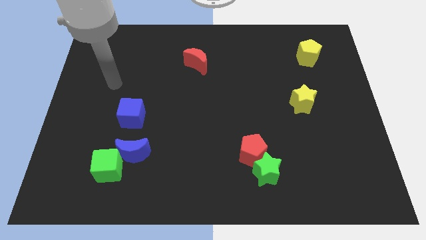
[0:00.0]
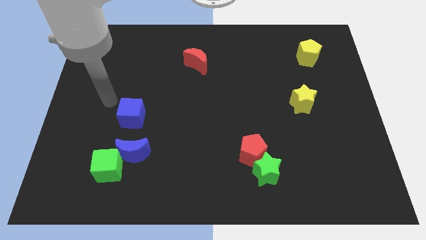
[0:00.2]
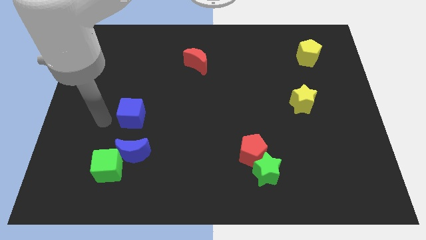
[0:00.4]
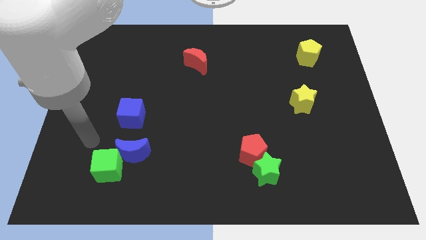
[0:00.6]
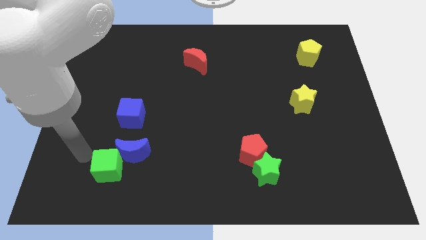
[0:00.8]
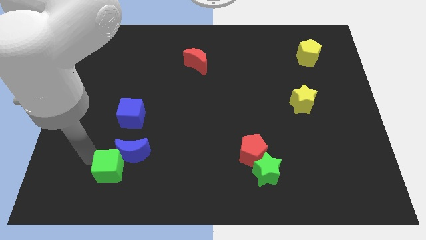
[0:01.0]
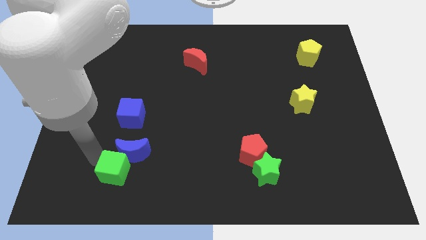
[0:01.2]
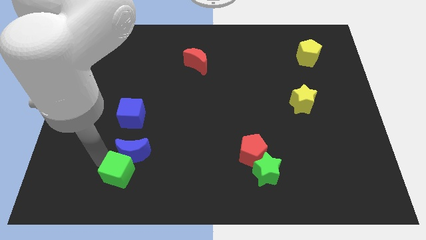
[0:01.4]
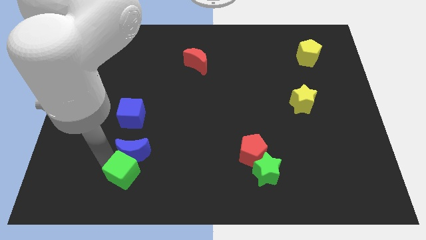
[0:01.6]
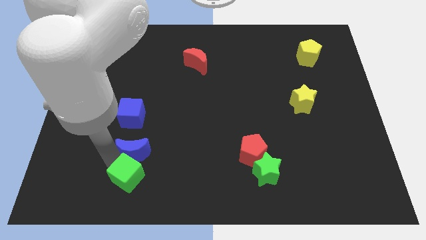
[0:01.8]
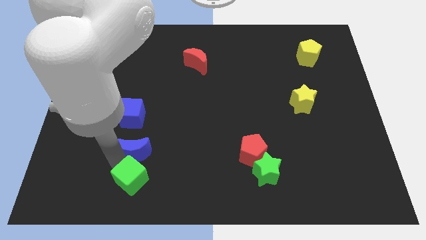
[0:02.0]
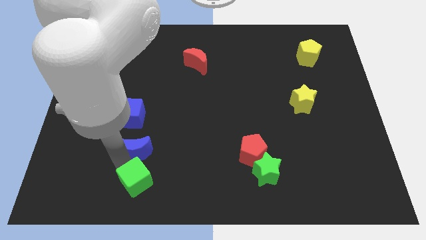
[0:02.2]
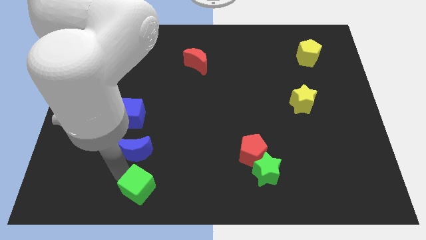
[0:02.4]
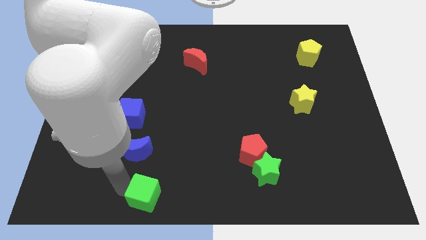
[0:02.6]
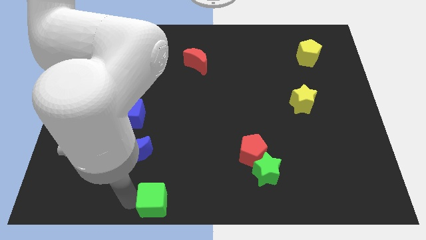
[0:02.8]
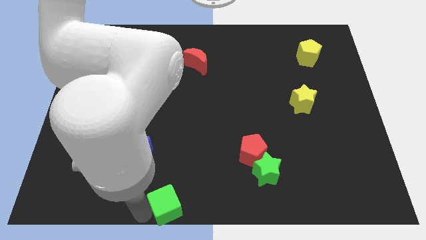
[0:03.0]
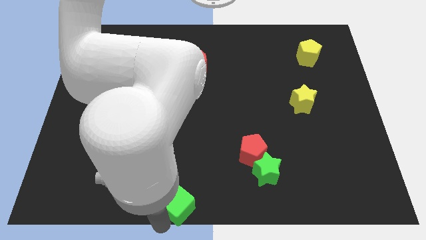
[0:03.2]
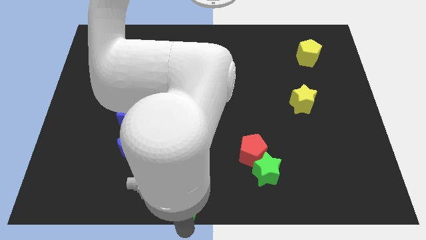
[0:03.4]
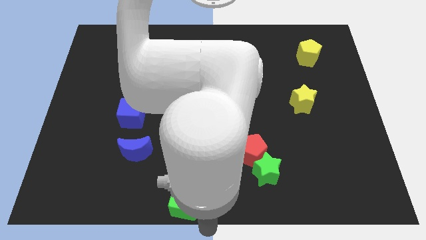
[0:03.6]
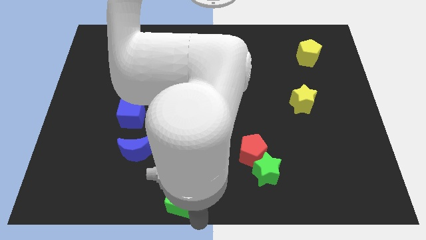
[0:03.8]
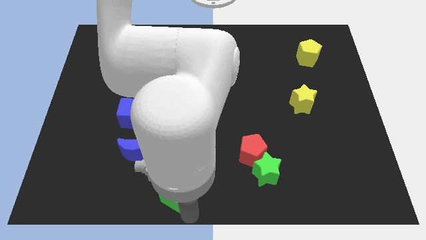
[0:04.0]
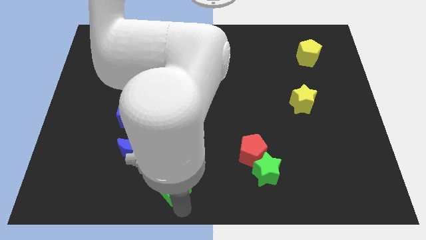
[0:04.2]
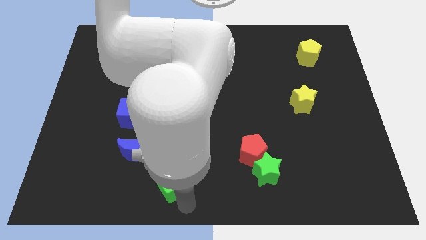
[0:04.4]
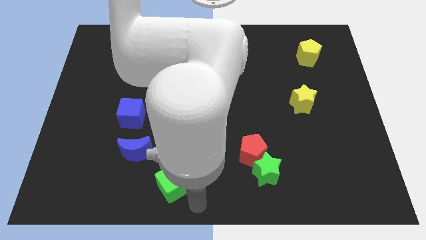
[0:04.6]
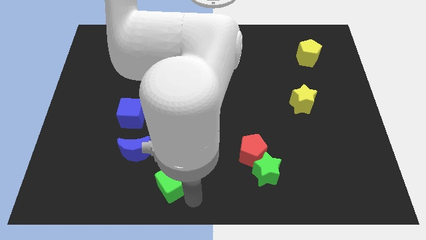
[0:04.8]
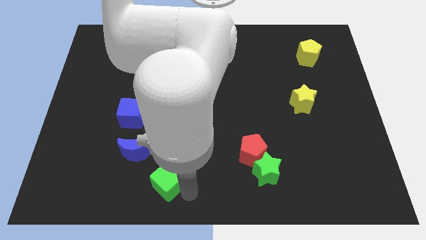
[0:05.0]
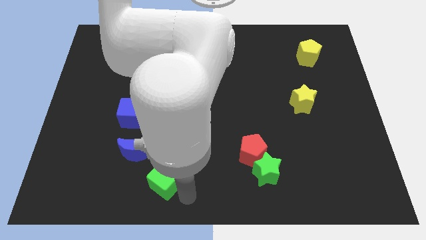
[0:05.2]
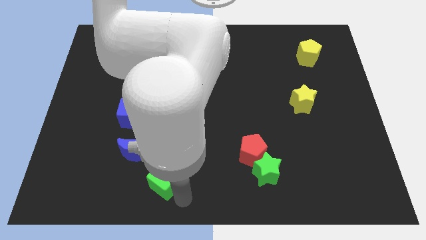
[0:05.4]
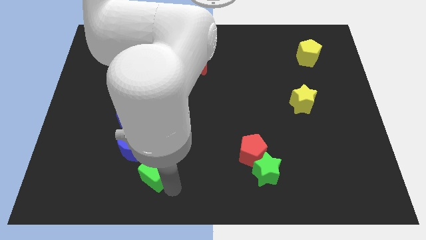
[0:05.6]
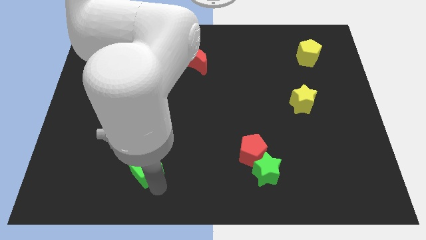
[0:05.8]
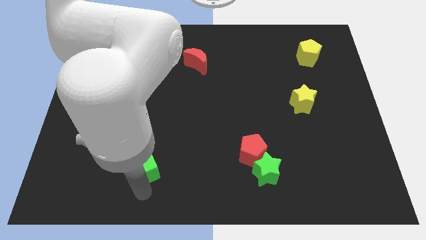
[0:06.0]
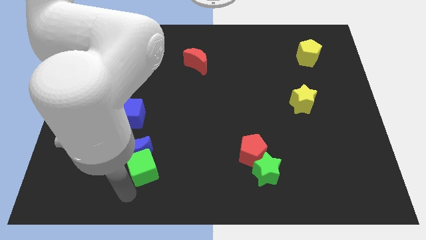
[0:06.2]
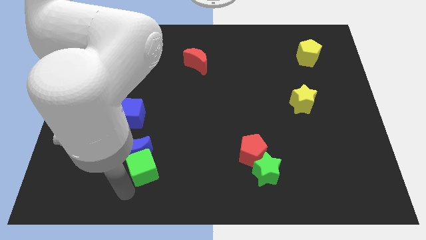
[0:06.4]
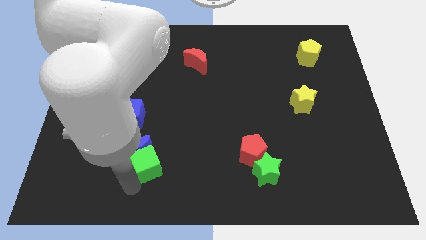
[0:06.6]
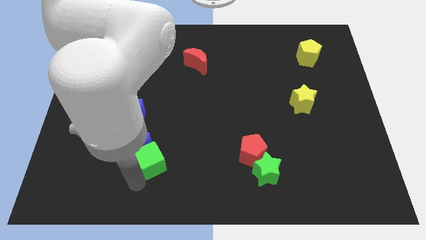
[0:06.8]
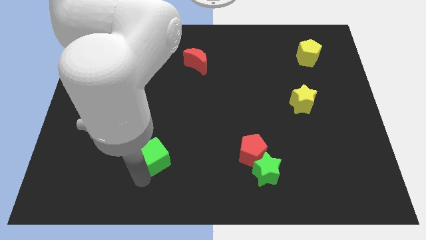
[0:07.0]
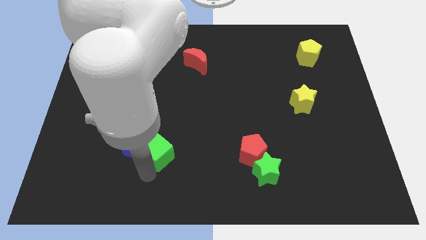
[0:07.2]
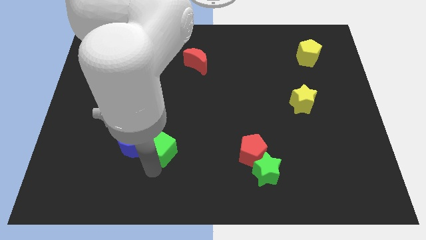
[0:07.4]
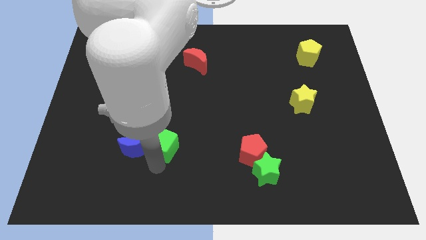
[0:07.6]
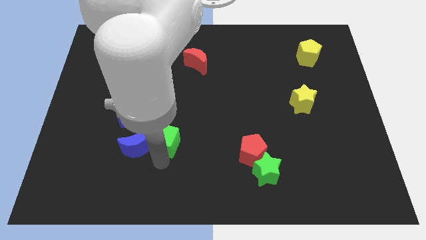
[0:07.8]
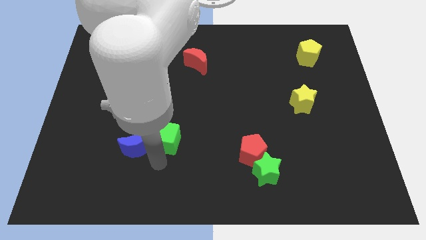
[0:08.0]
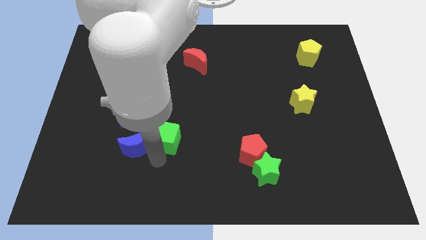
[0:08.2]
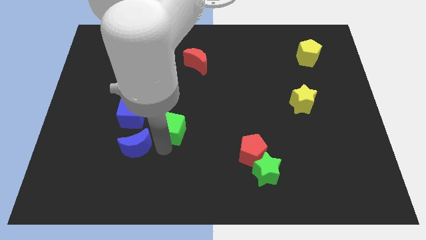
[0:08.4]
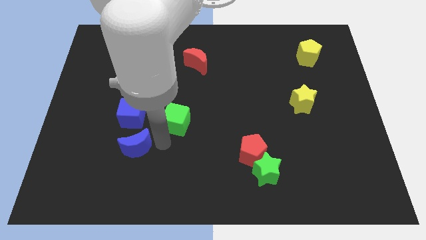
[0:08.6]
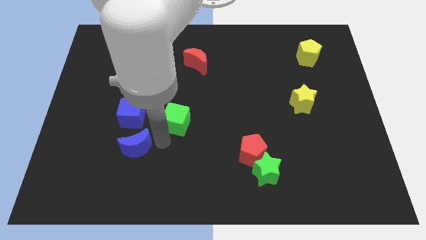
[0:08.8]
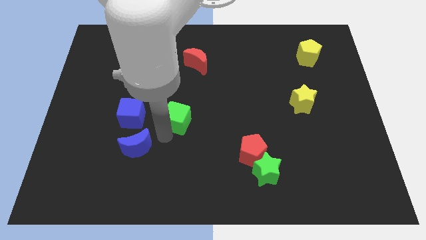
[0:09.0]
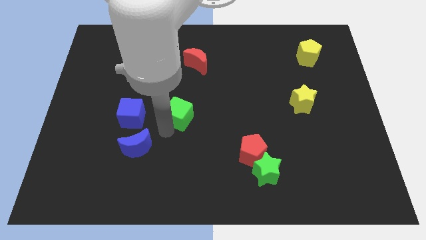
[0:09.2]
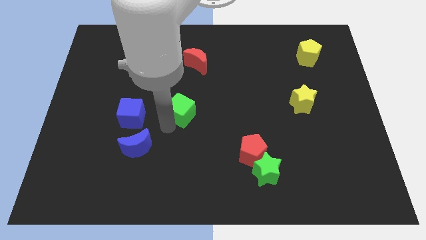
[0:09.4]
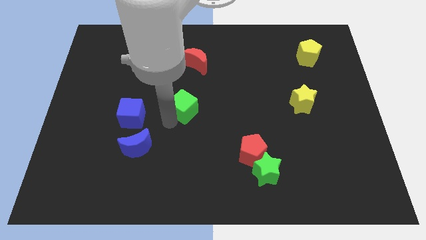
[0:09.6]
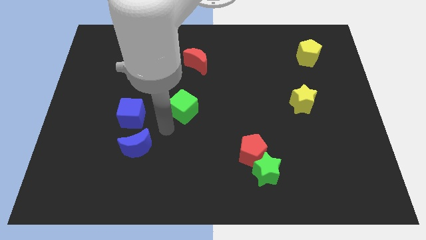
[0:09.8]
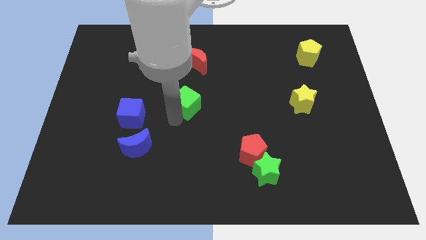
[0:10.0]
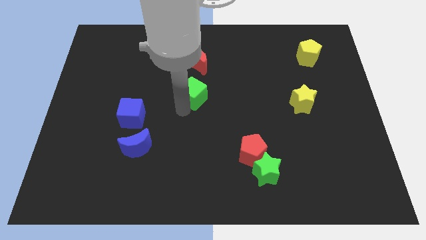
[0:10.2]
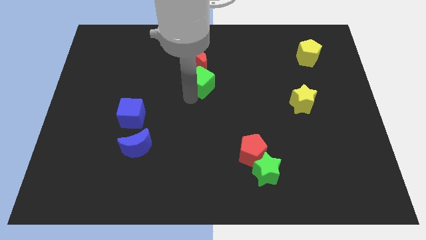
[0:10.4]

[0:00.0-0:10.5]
slide the green cube to the bottom right of the red moon

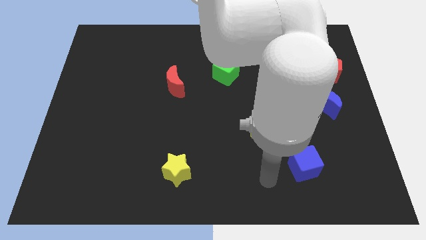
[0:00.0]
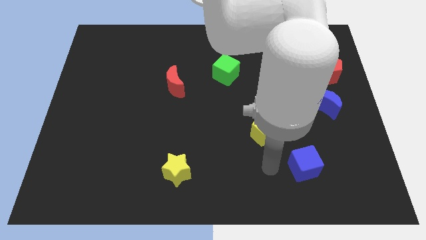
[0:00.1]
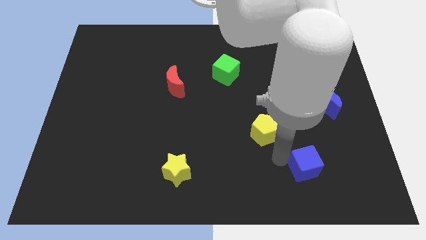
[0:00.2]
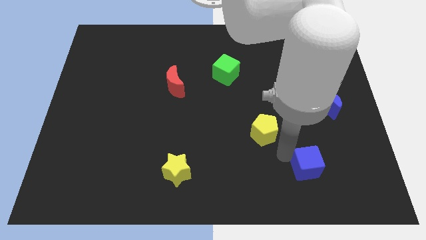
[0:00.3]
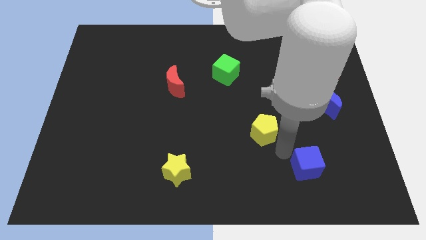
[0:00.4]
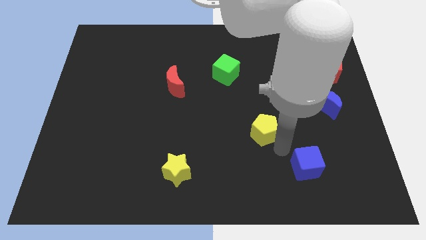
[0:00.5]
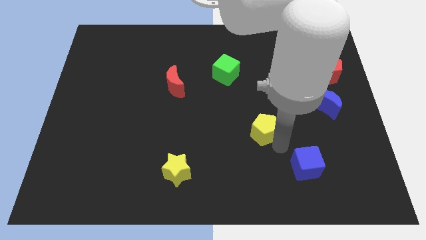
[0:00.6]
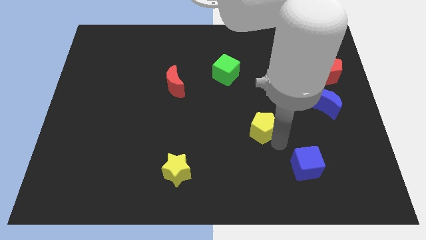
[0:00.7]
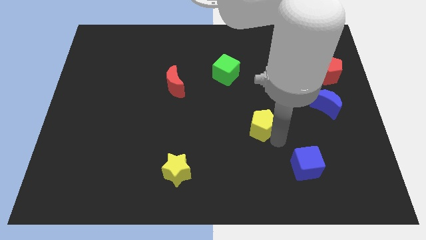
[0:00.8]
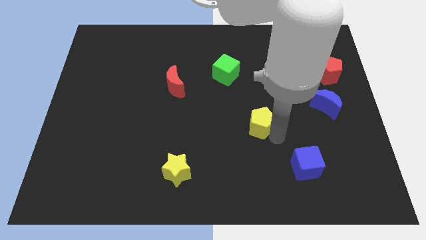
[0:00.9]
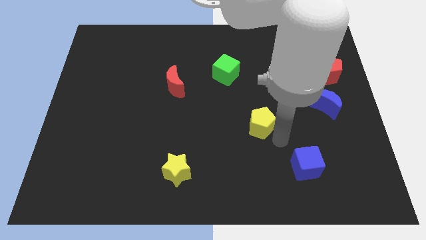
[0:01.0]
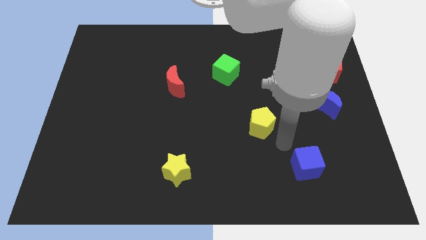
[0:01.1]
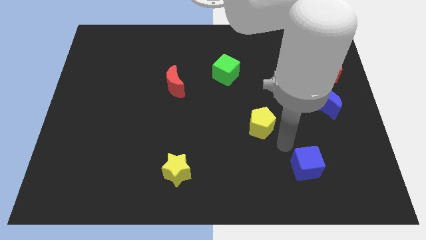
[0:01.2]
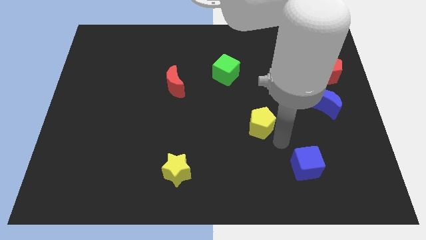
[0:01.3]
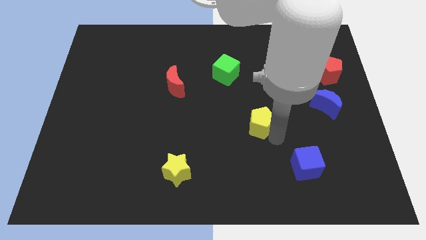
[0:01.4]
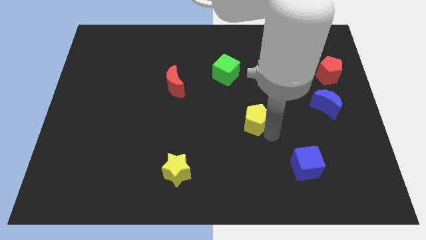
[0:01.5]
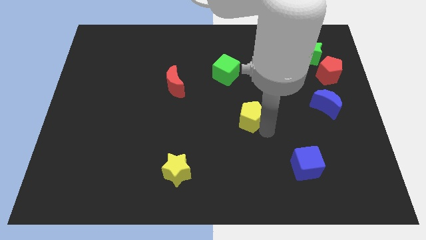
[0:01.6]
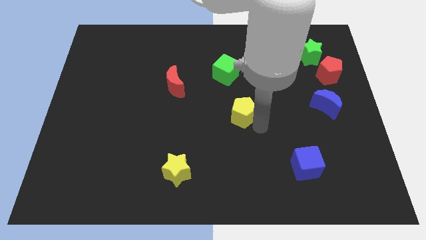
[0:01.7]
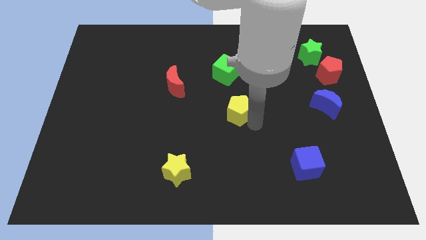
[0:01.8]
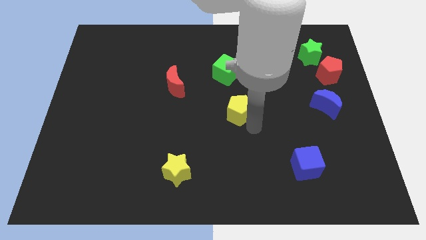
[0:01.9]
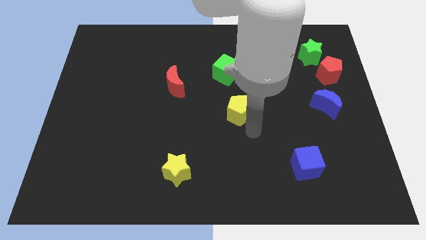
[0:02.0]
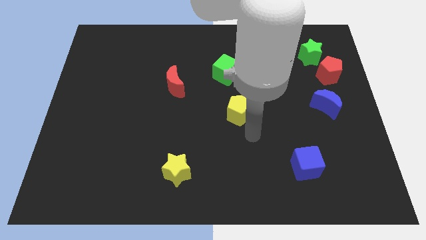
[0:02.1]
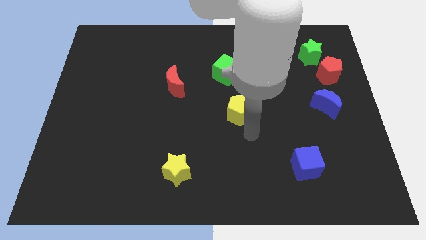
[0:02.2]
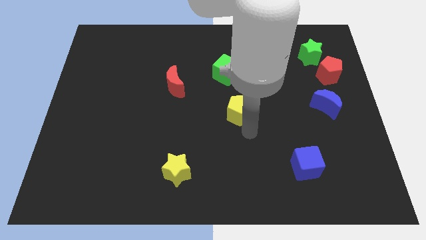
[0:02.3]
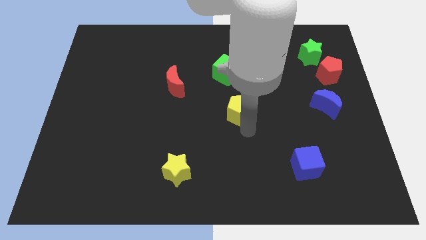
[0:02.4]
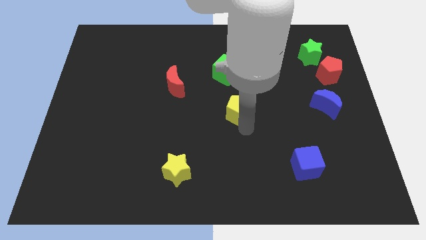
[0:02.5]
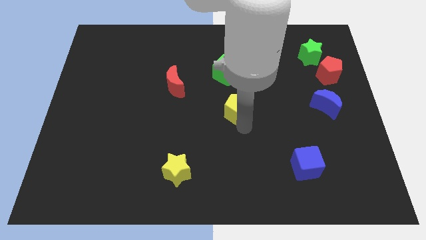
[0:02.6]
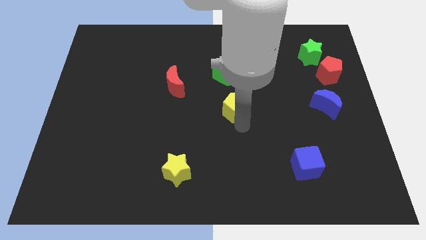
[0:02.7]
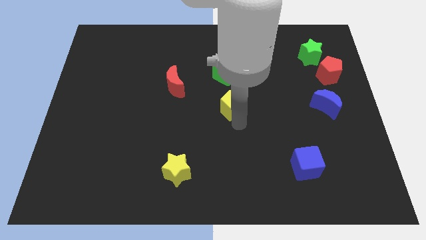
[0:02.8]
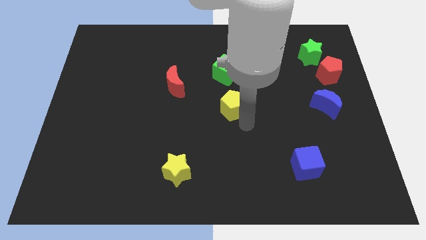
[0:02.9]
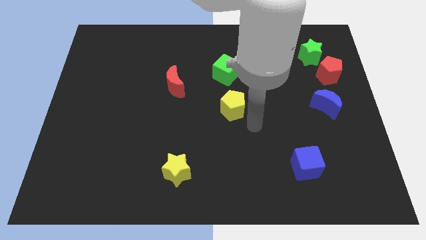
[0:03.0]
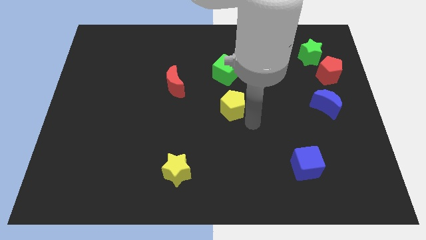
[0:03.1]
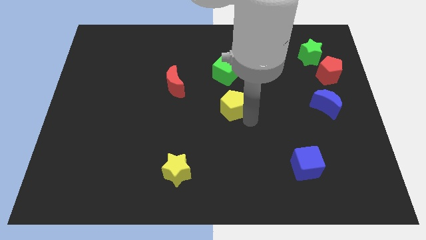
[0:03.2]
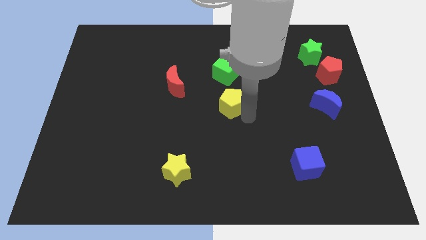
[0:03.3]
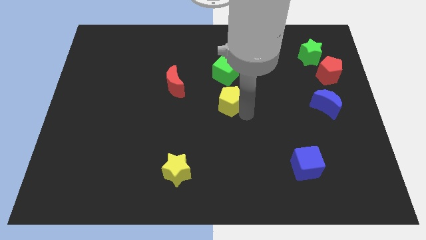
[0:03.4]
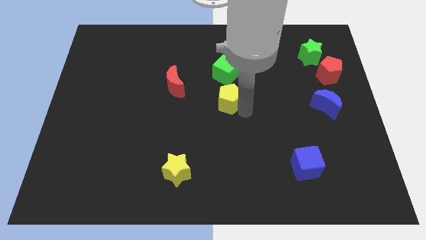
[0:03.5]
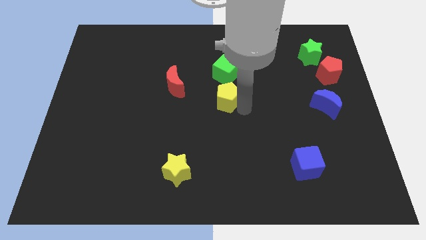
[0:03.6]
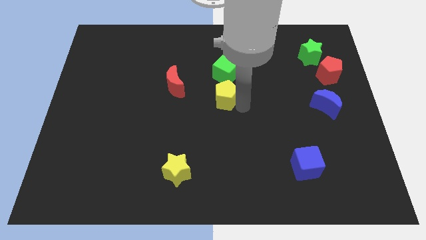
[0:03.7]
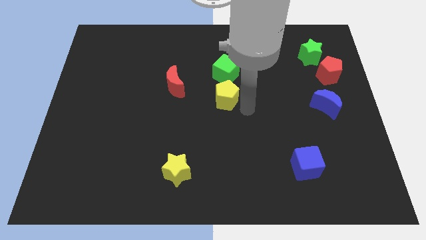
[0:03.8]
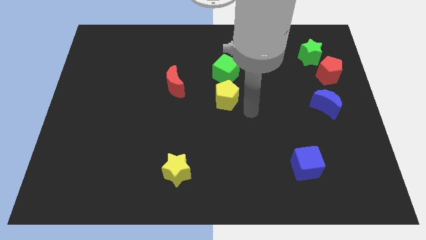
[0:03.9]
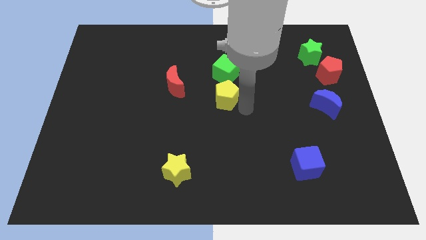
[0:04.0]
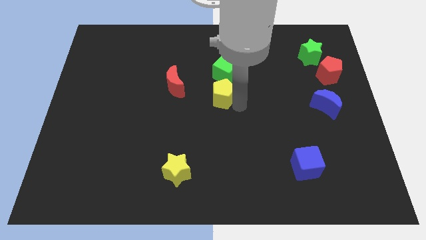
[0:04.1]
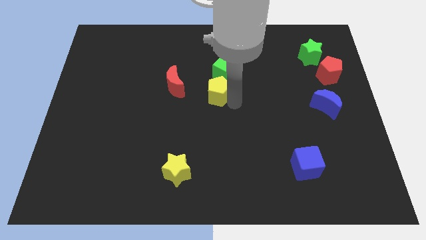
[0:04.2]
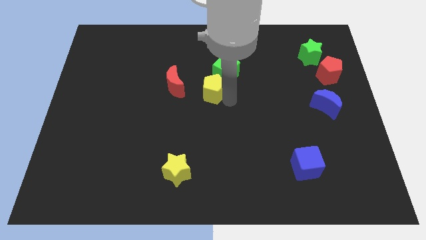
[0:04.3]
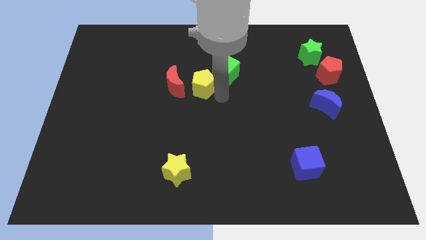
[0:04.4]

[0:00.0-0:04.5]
put the yellow pentagon to the left side of the green cube
